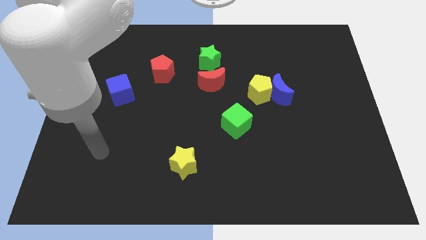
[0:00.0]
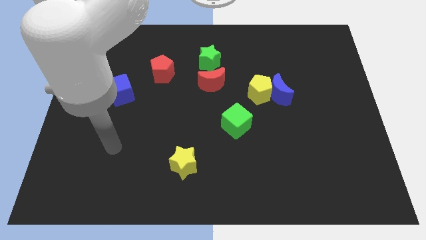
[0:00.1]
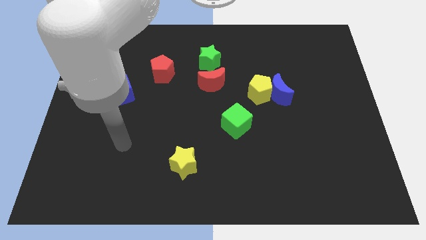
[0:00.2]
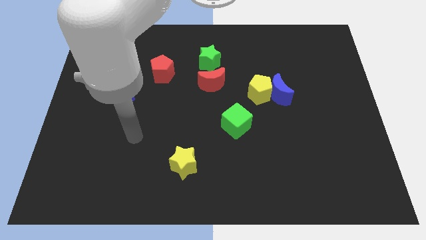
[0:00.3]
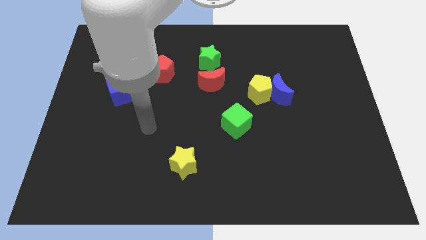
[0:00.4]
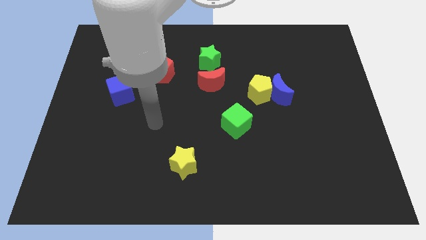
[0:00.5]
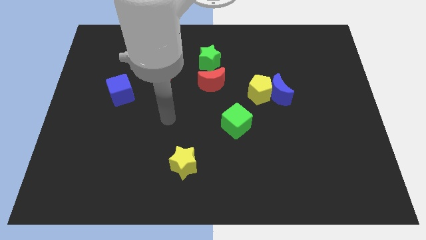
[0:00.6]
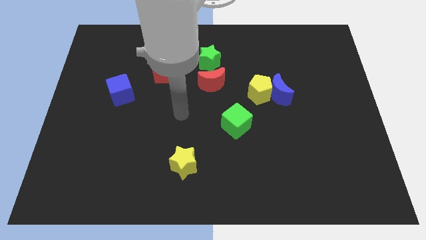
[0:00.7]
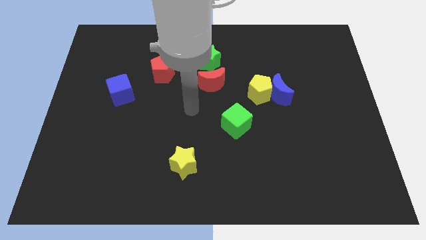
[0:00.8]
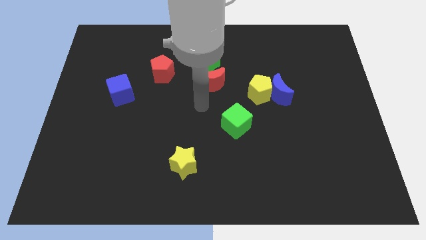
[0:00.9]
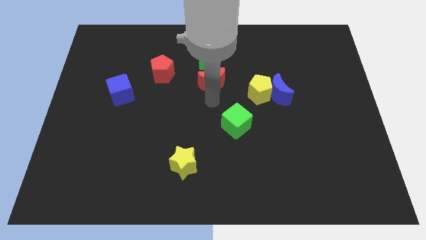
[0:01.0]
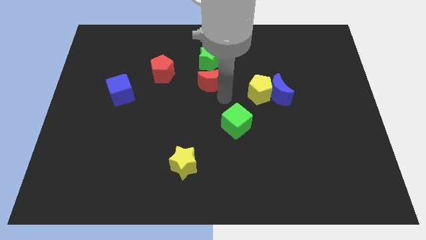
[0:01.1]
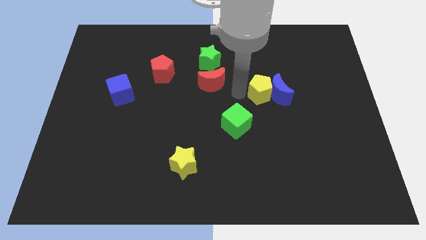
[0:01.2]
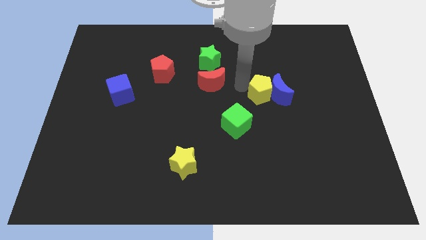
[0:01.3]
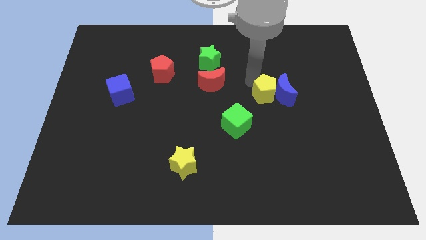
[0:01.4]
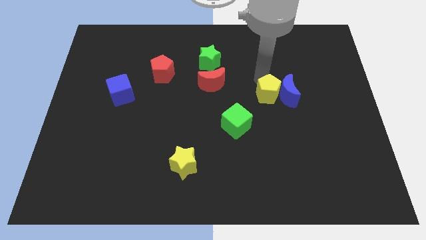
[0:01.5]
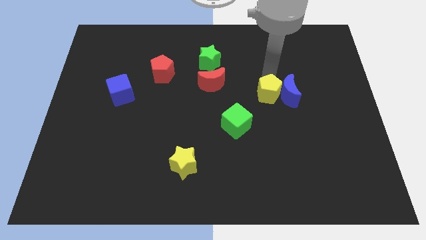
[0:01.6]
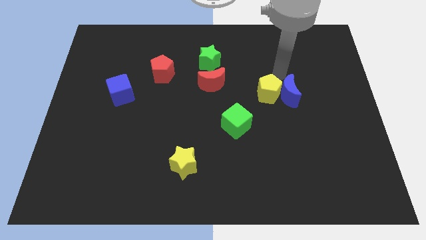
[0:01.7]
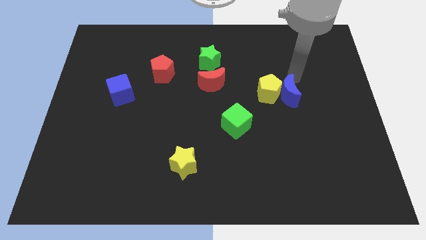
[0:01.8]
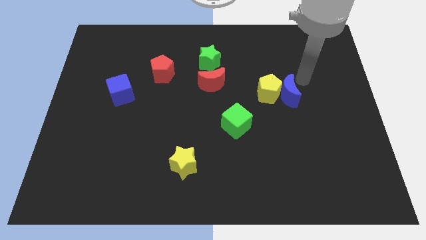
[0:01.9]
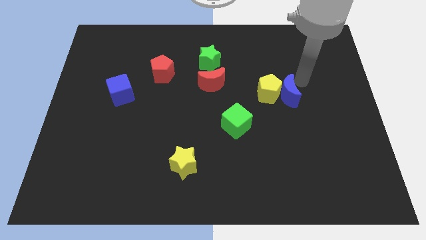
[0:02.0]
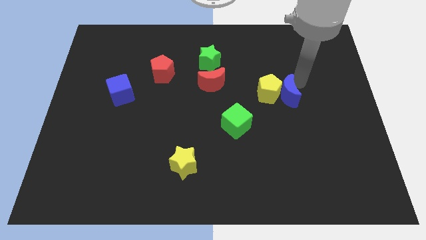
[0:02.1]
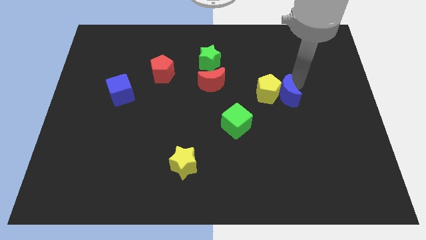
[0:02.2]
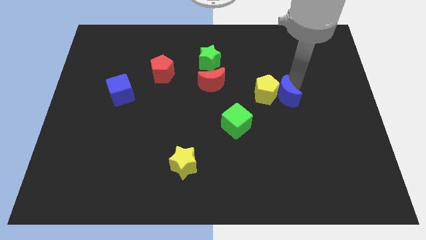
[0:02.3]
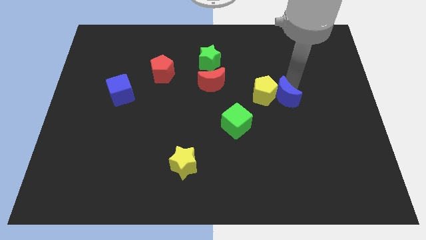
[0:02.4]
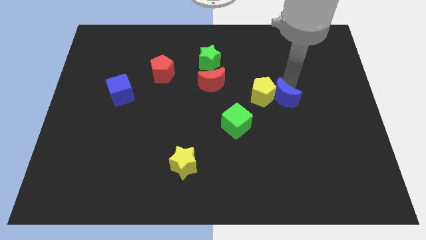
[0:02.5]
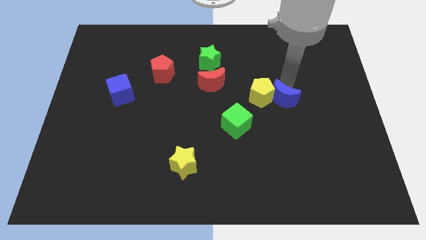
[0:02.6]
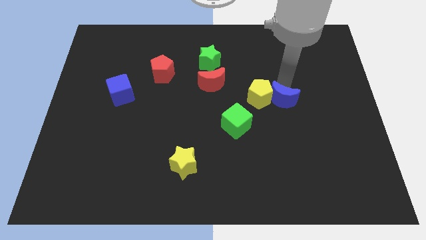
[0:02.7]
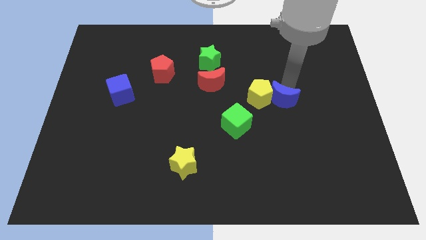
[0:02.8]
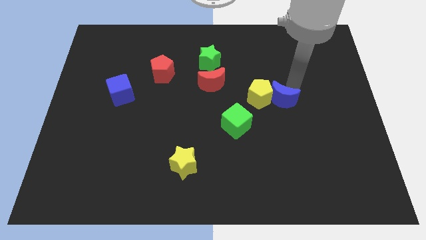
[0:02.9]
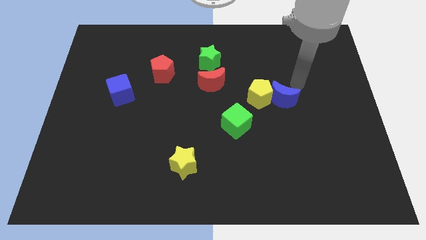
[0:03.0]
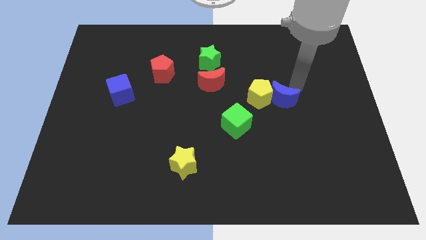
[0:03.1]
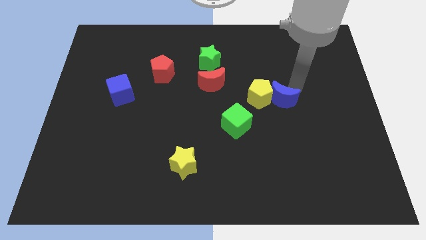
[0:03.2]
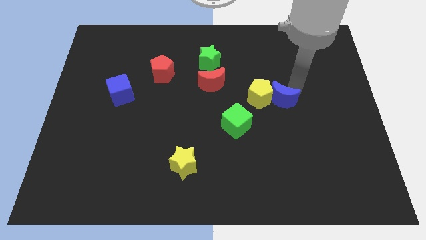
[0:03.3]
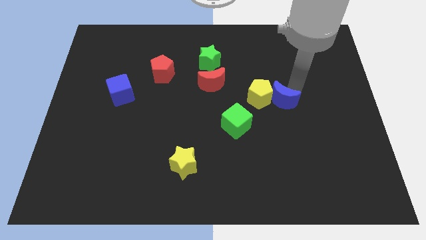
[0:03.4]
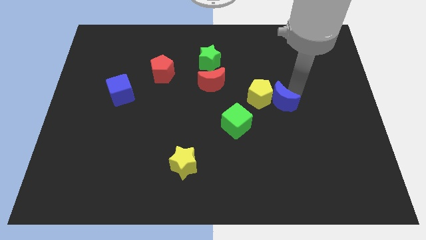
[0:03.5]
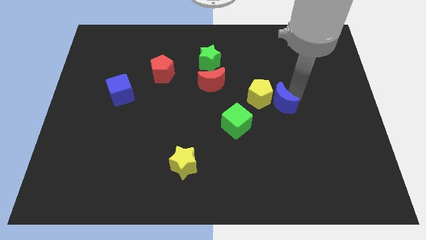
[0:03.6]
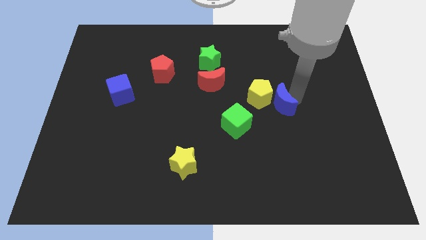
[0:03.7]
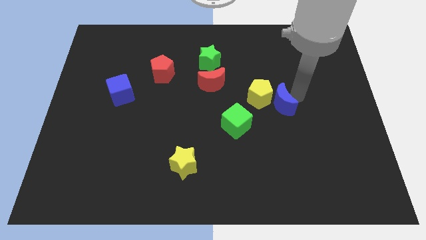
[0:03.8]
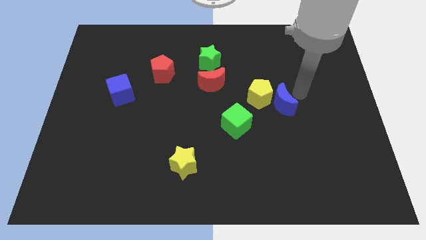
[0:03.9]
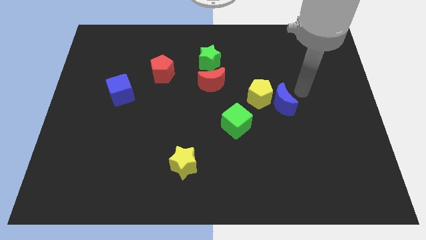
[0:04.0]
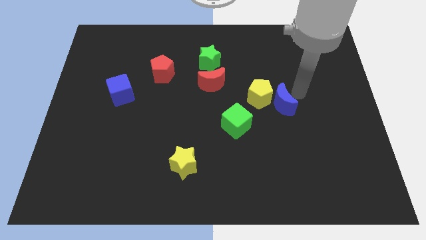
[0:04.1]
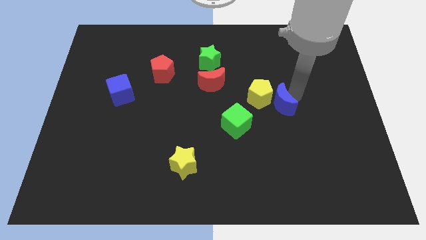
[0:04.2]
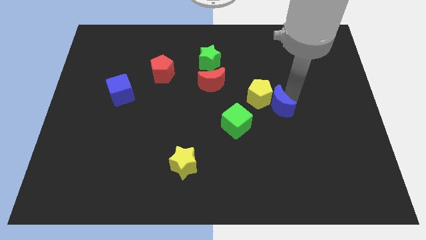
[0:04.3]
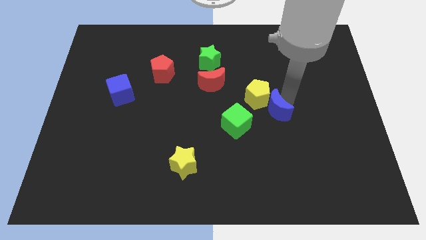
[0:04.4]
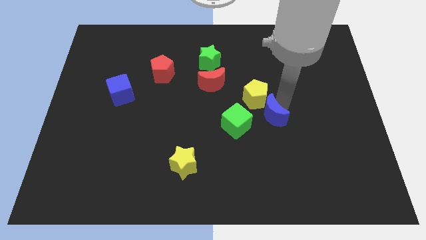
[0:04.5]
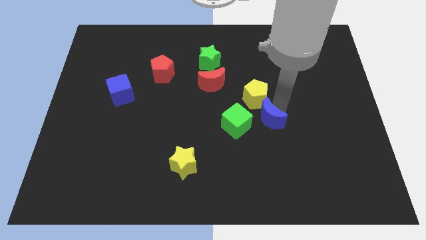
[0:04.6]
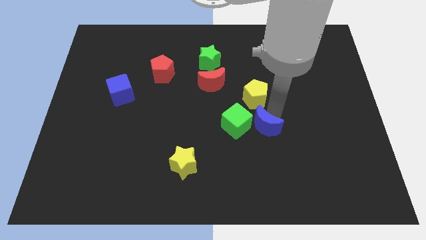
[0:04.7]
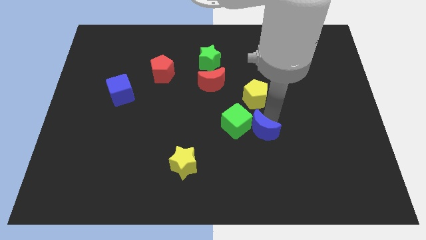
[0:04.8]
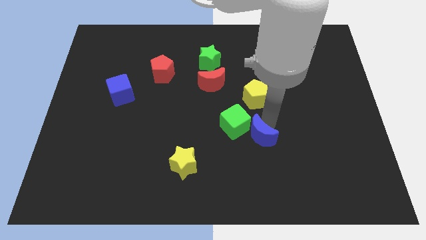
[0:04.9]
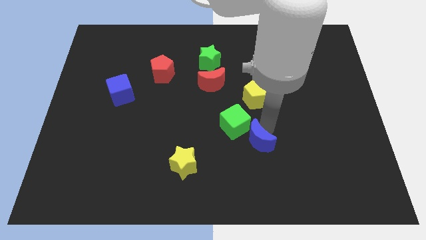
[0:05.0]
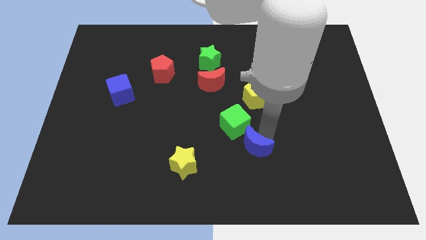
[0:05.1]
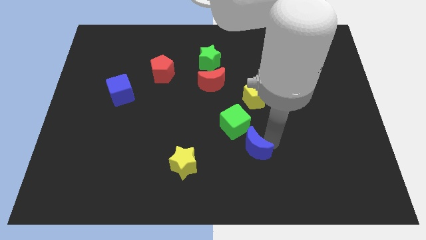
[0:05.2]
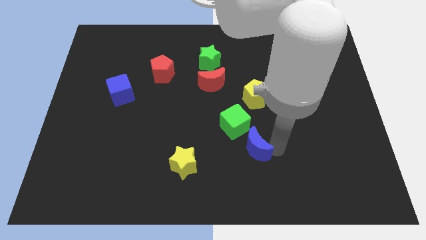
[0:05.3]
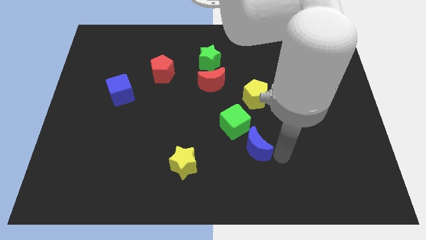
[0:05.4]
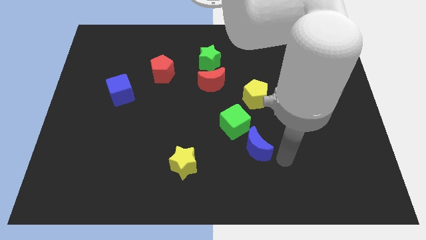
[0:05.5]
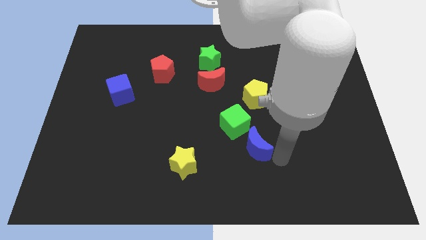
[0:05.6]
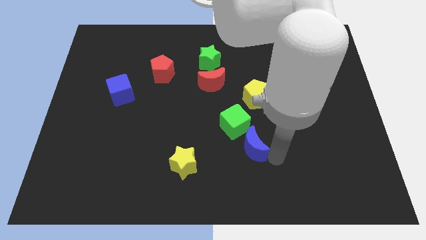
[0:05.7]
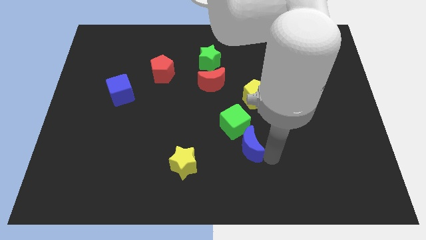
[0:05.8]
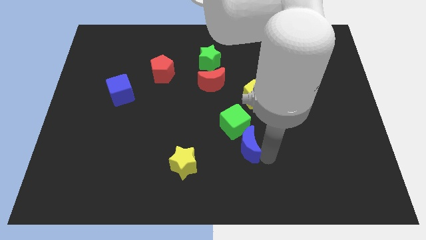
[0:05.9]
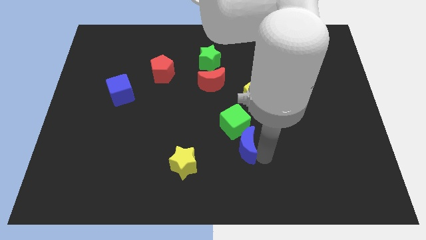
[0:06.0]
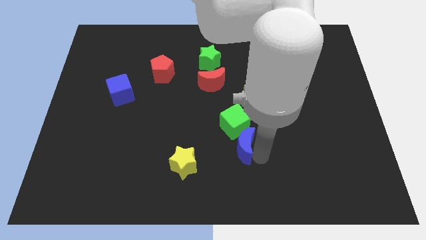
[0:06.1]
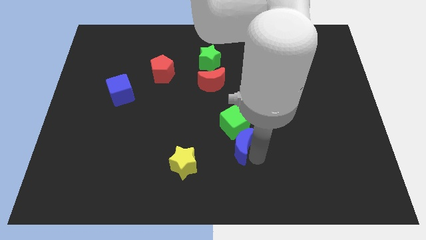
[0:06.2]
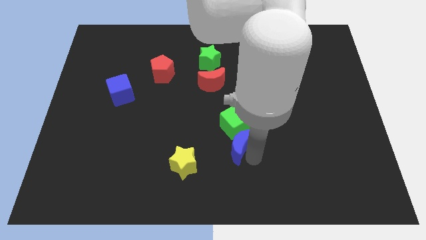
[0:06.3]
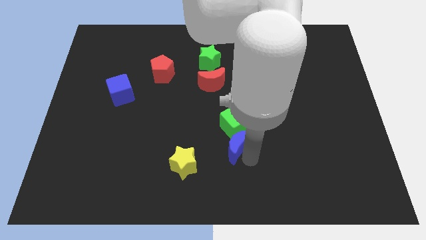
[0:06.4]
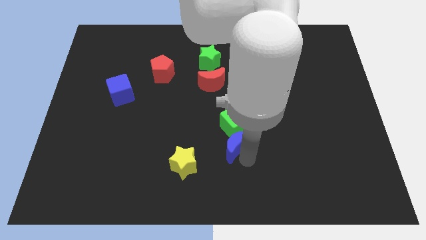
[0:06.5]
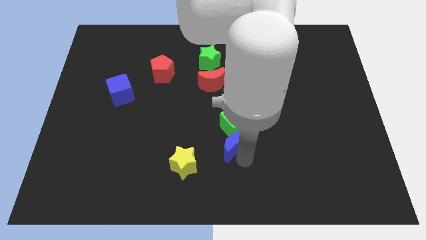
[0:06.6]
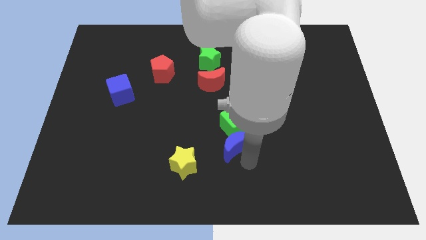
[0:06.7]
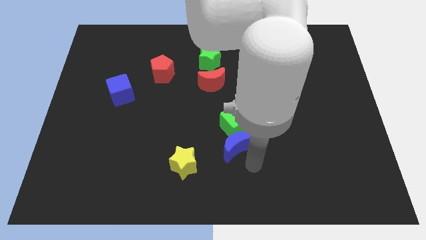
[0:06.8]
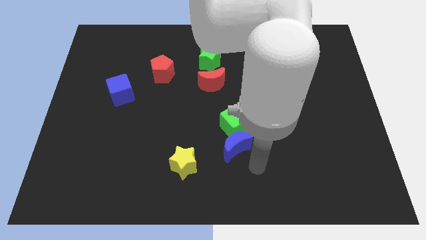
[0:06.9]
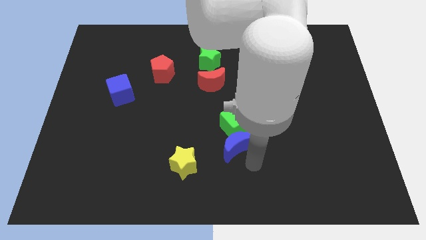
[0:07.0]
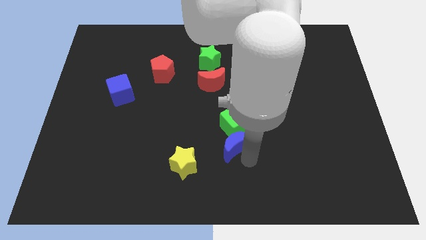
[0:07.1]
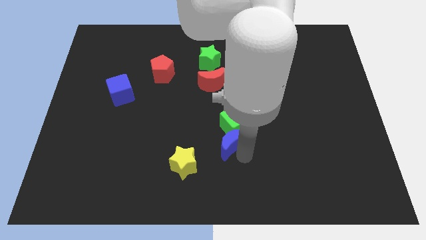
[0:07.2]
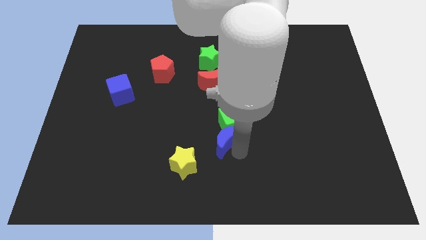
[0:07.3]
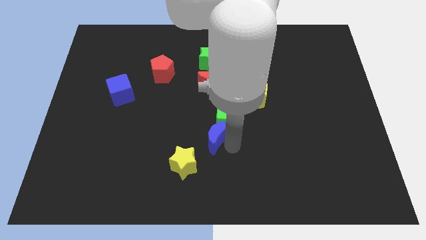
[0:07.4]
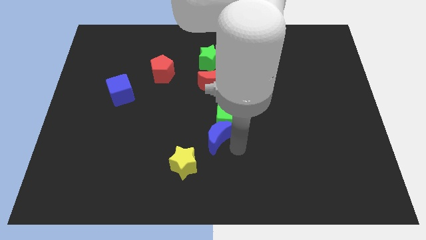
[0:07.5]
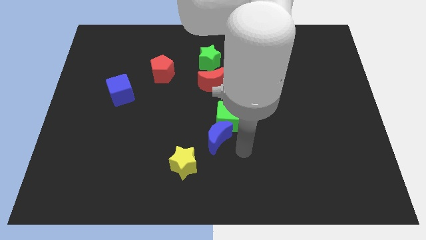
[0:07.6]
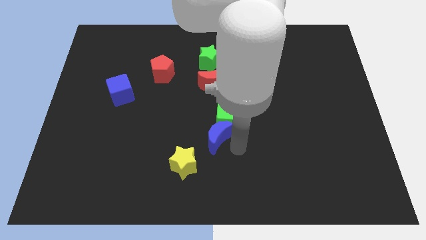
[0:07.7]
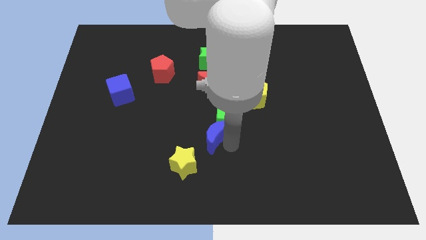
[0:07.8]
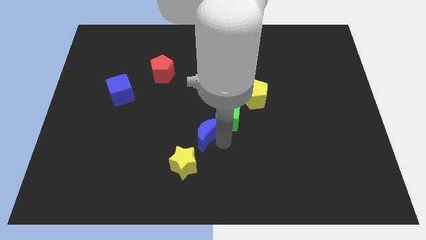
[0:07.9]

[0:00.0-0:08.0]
move the blue moon to the top of the yellow star
